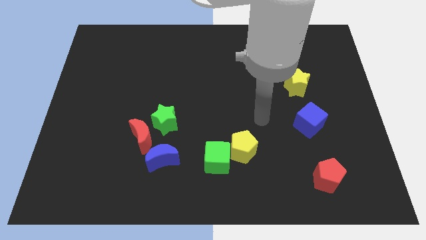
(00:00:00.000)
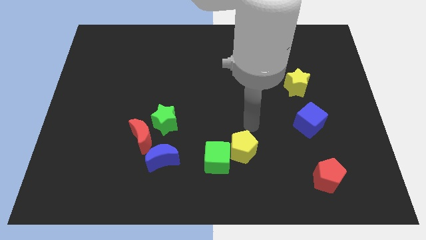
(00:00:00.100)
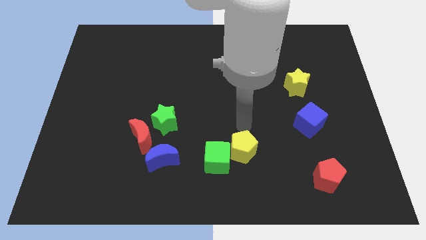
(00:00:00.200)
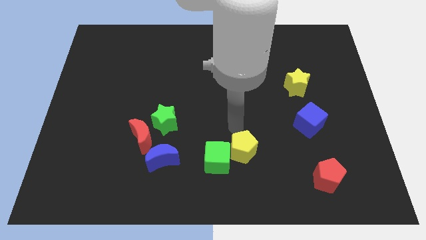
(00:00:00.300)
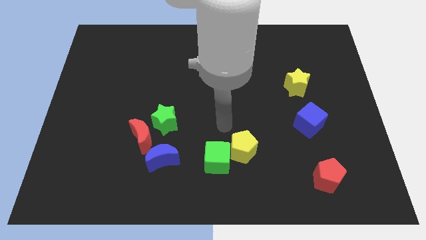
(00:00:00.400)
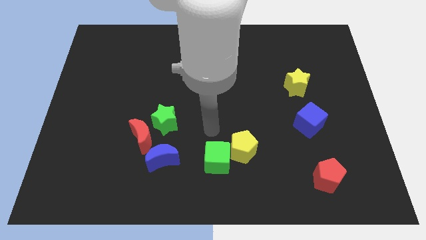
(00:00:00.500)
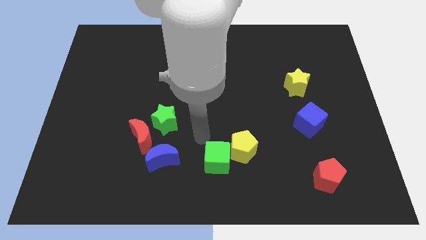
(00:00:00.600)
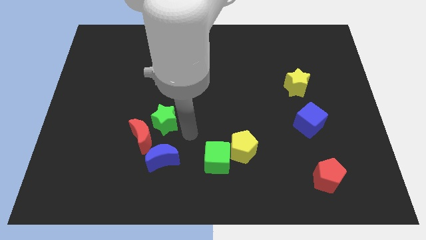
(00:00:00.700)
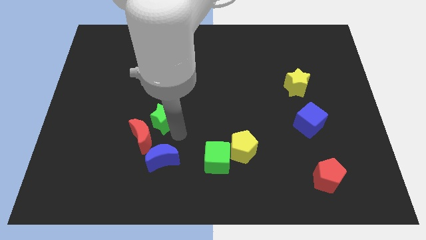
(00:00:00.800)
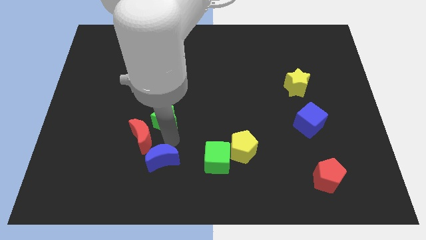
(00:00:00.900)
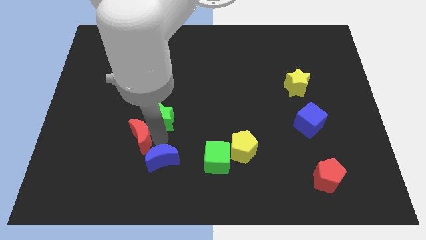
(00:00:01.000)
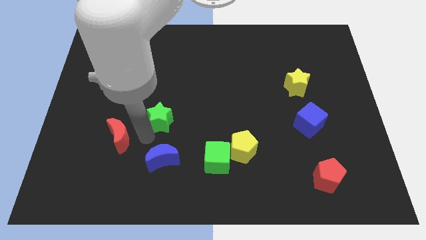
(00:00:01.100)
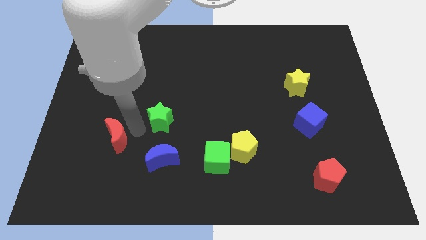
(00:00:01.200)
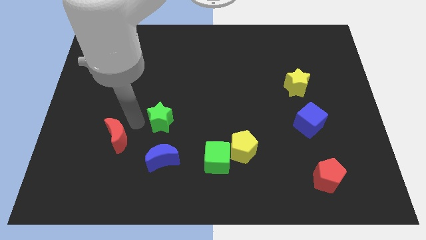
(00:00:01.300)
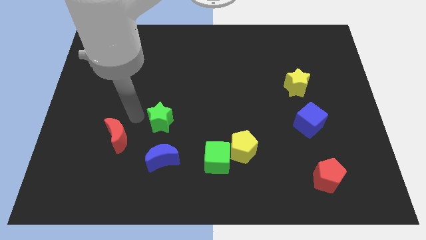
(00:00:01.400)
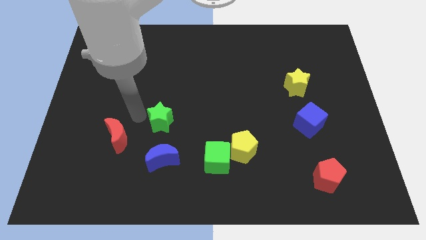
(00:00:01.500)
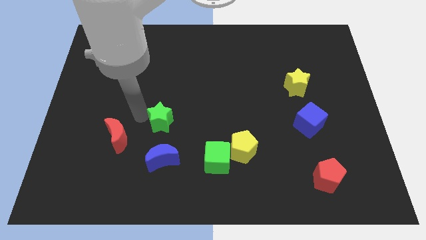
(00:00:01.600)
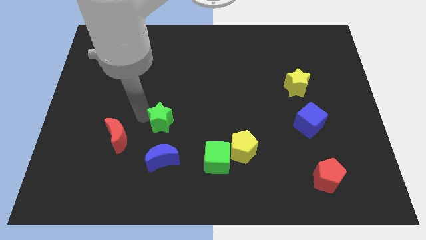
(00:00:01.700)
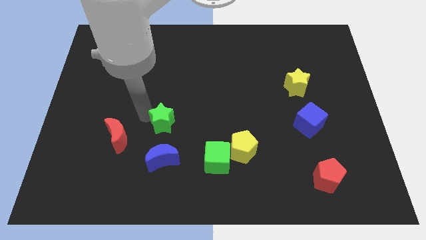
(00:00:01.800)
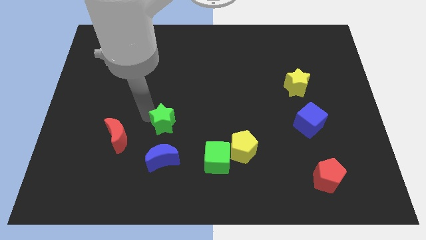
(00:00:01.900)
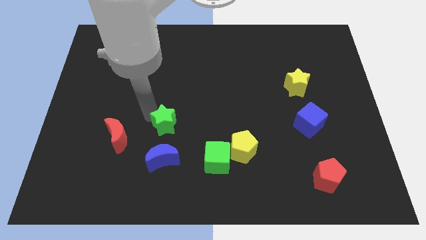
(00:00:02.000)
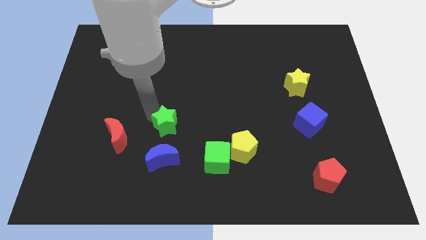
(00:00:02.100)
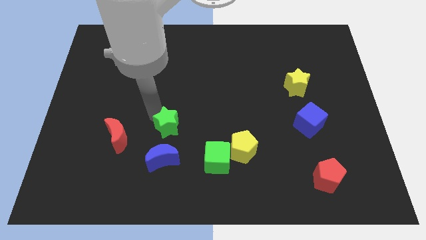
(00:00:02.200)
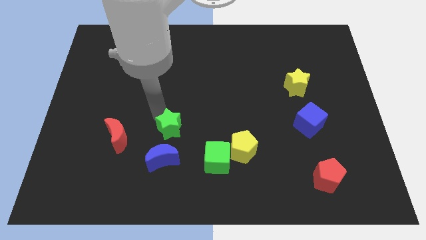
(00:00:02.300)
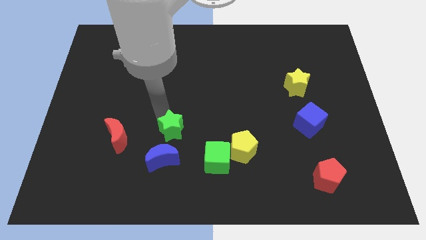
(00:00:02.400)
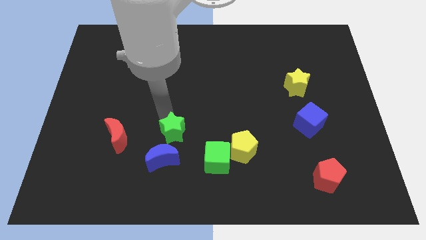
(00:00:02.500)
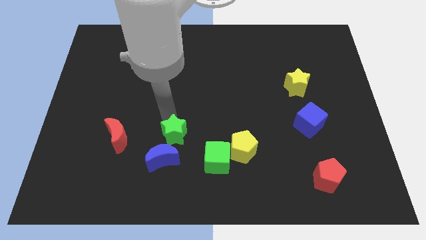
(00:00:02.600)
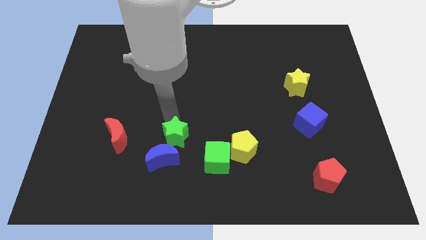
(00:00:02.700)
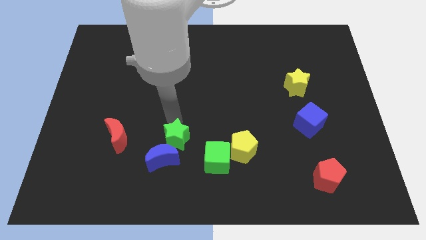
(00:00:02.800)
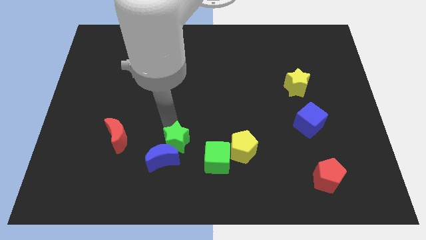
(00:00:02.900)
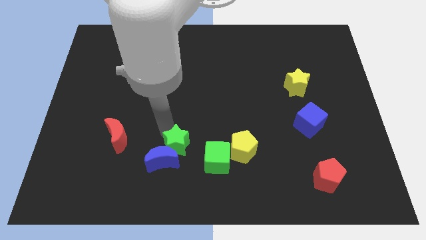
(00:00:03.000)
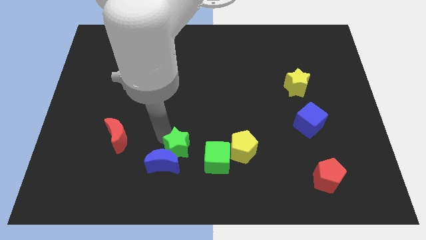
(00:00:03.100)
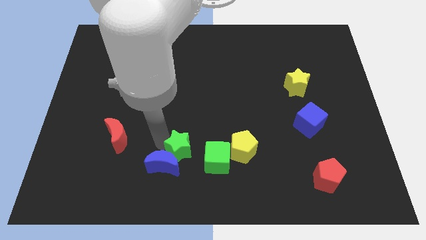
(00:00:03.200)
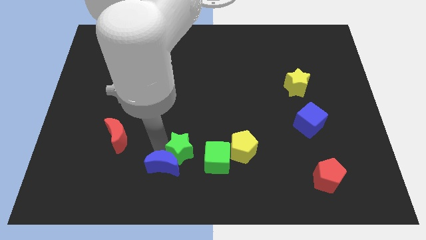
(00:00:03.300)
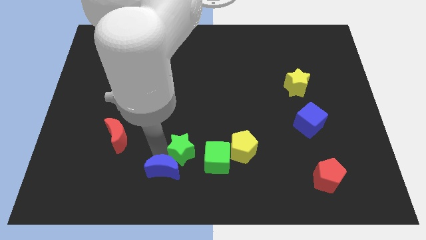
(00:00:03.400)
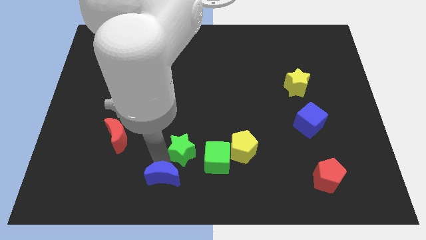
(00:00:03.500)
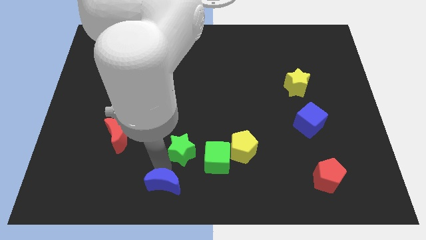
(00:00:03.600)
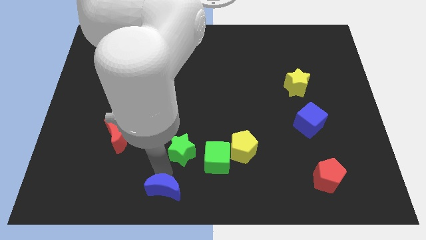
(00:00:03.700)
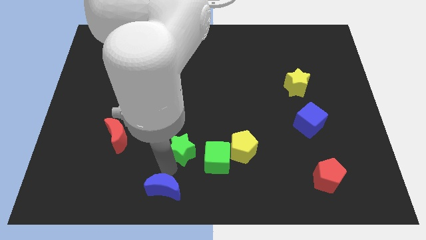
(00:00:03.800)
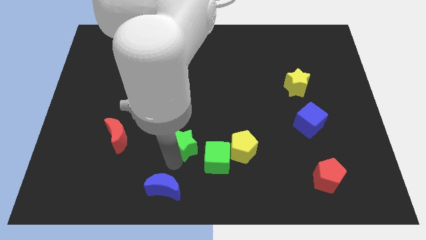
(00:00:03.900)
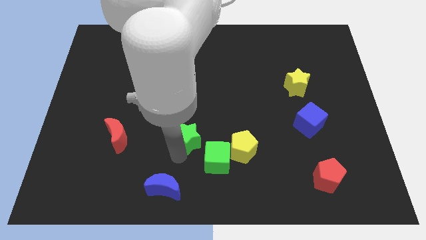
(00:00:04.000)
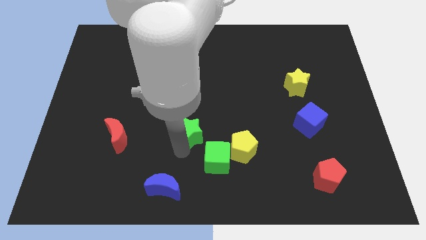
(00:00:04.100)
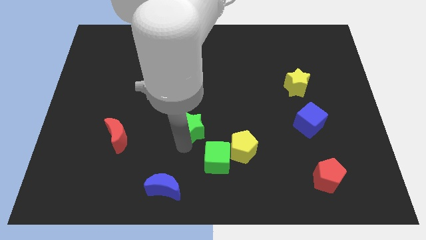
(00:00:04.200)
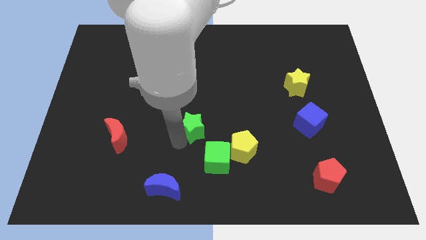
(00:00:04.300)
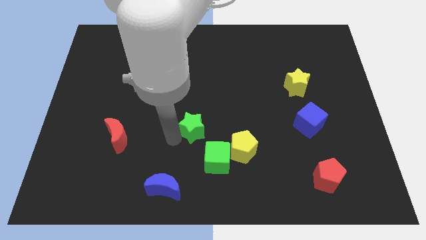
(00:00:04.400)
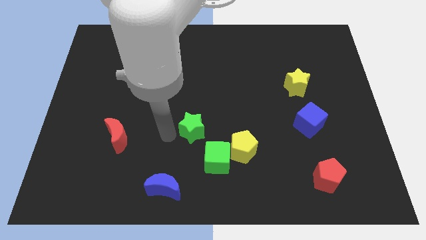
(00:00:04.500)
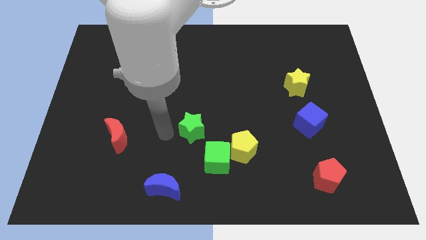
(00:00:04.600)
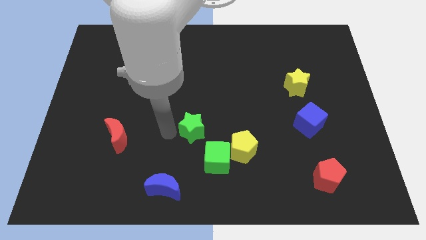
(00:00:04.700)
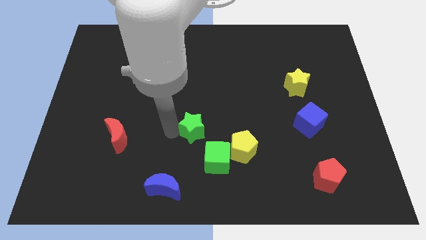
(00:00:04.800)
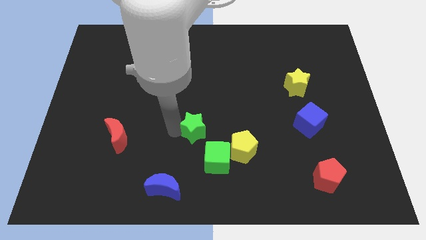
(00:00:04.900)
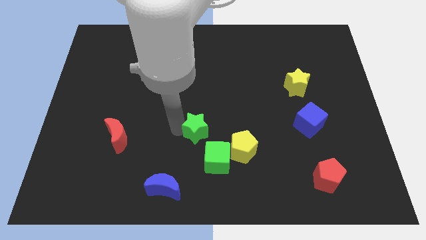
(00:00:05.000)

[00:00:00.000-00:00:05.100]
slightly slide the green star right

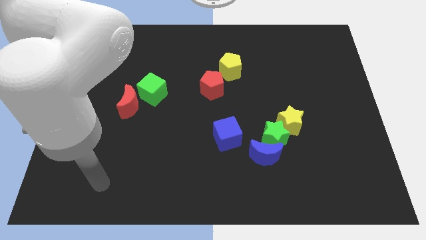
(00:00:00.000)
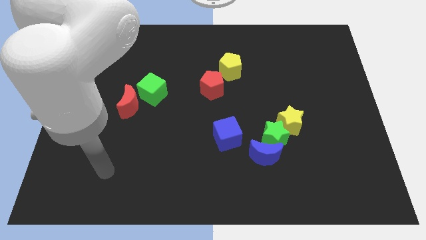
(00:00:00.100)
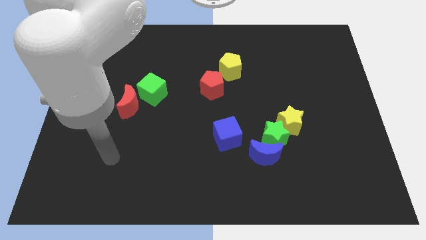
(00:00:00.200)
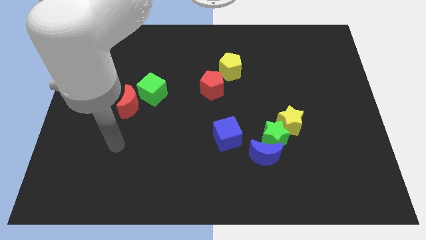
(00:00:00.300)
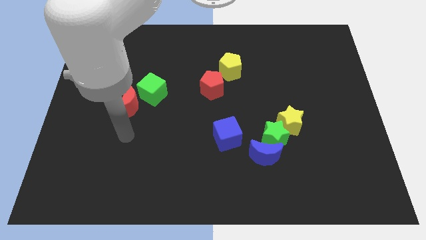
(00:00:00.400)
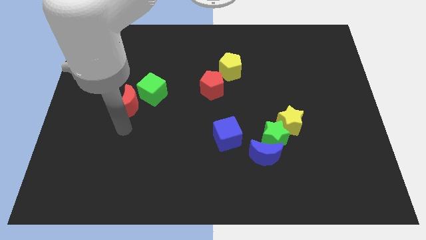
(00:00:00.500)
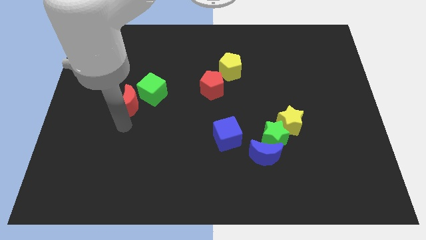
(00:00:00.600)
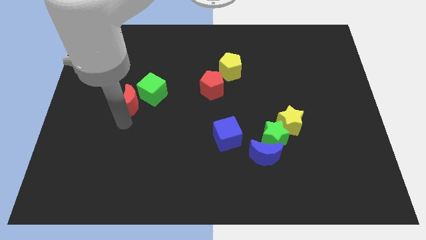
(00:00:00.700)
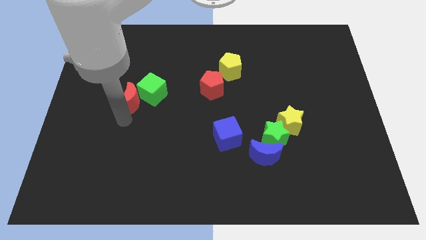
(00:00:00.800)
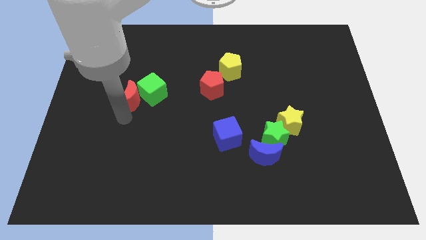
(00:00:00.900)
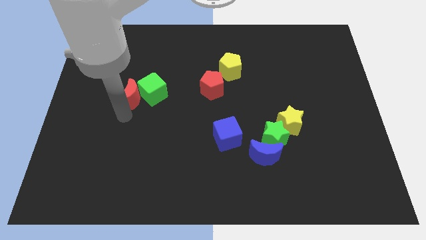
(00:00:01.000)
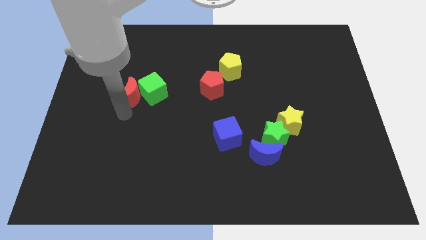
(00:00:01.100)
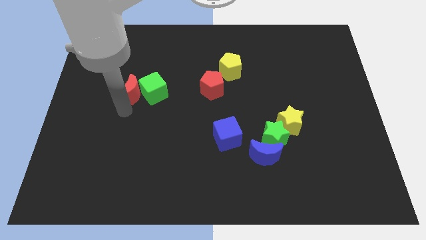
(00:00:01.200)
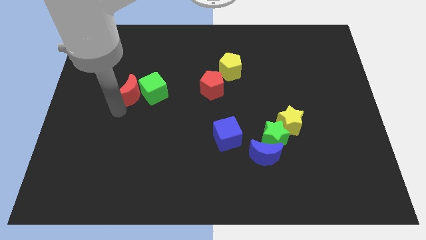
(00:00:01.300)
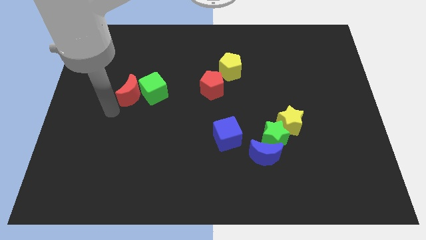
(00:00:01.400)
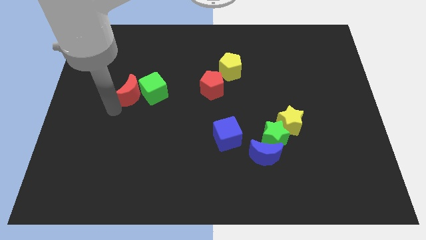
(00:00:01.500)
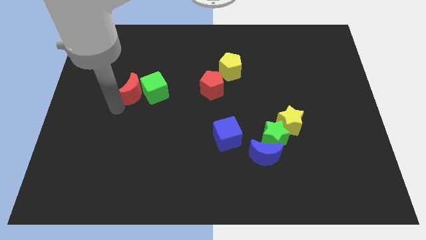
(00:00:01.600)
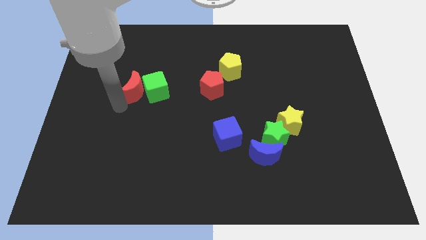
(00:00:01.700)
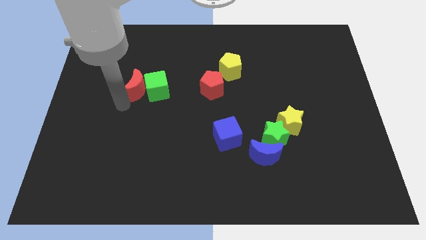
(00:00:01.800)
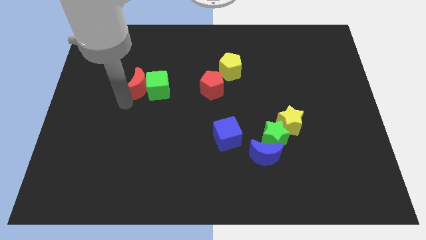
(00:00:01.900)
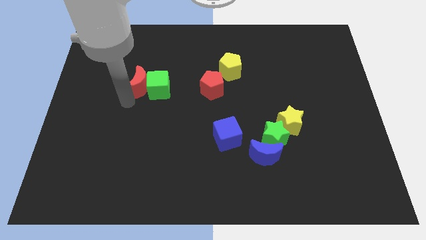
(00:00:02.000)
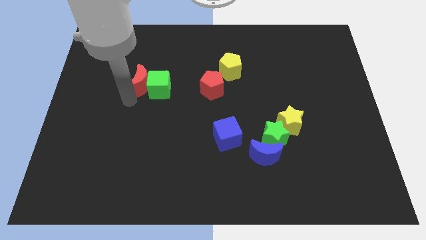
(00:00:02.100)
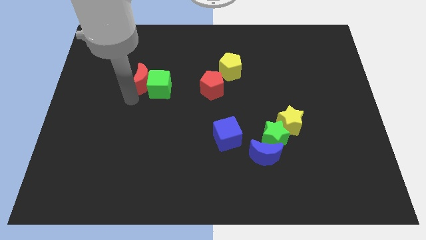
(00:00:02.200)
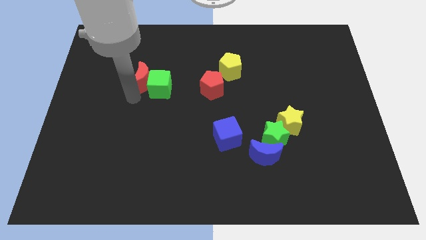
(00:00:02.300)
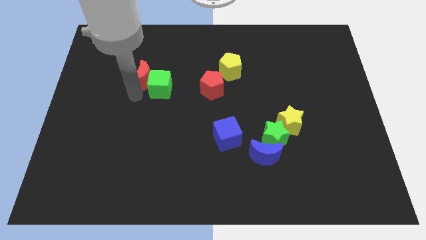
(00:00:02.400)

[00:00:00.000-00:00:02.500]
slightly slide the red moon up and right diagonally

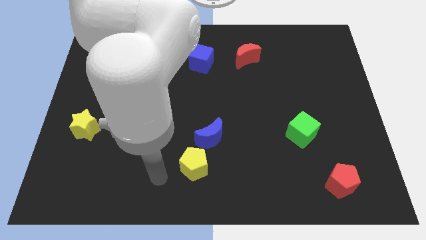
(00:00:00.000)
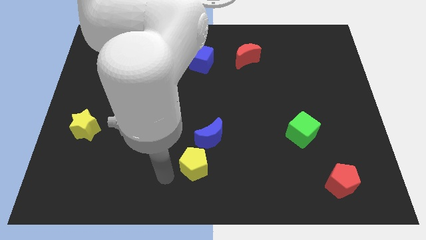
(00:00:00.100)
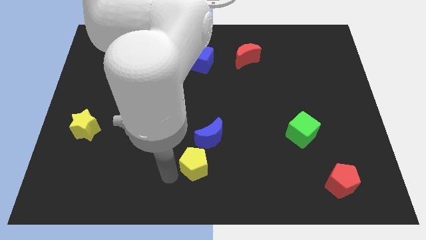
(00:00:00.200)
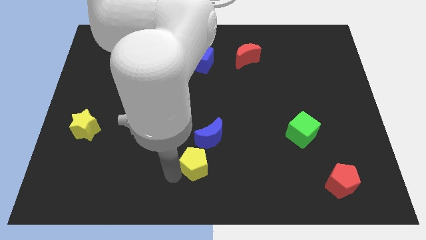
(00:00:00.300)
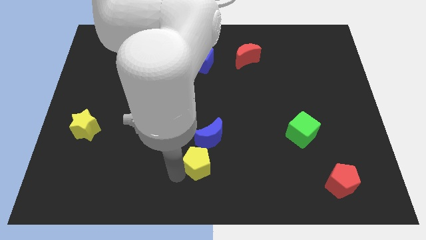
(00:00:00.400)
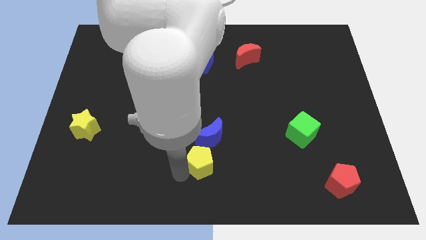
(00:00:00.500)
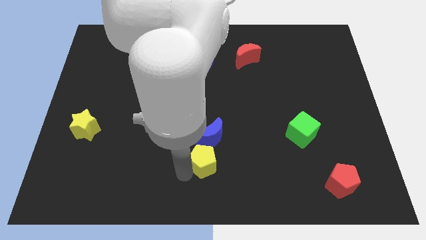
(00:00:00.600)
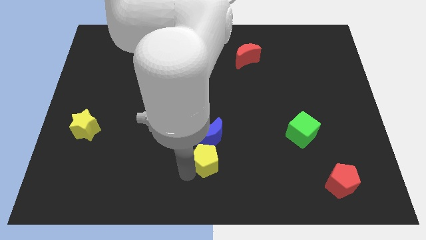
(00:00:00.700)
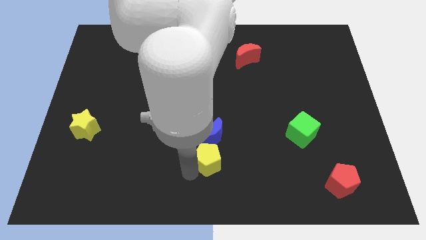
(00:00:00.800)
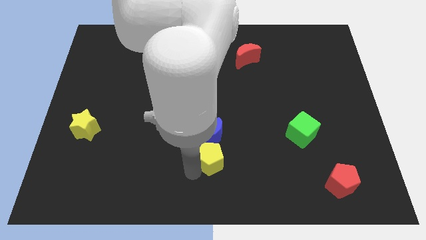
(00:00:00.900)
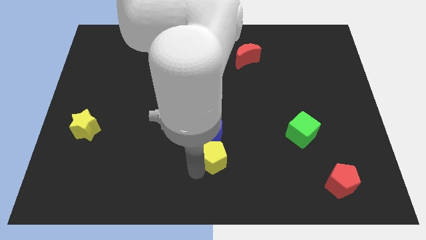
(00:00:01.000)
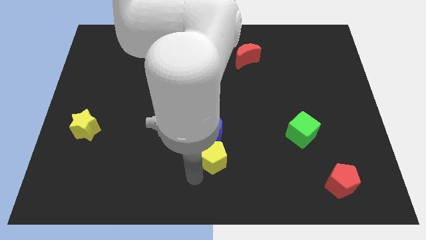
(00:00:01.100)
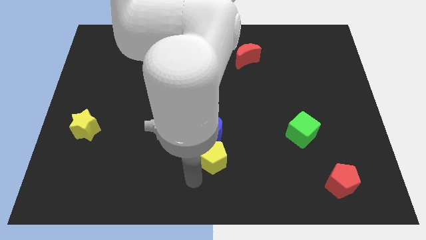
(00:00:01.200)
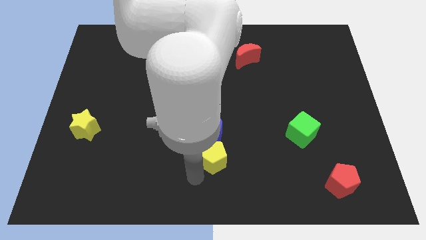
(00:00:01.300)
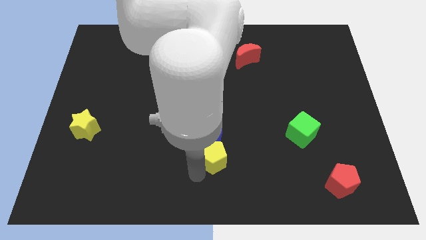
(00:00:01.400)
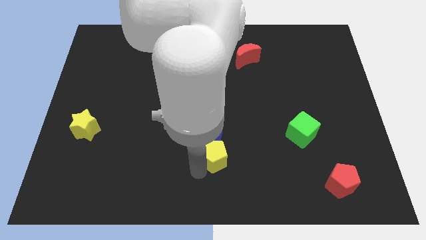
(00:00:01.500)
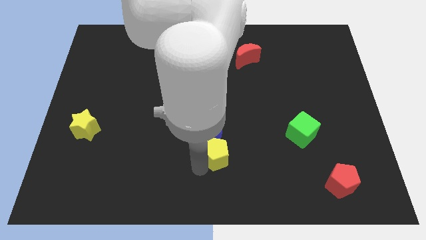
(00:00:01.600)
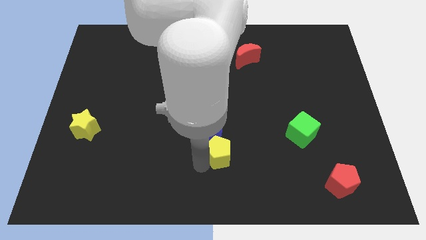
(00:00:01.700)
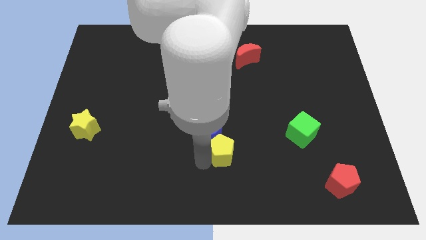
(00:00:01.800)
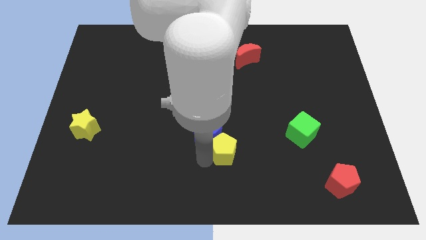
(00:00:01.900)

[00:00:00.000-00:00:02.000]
slightly slide the yellow pentagon upwards and right diagonally
